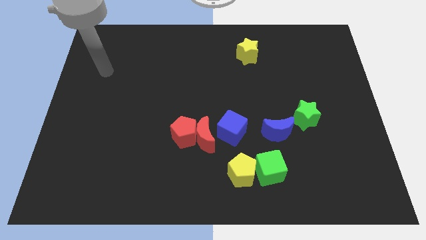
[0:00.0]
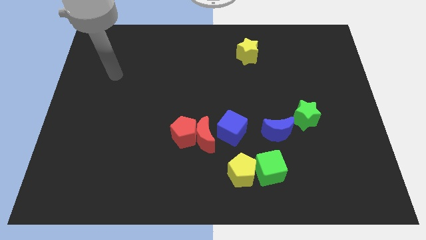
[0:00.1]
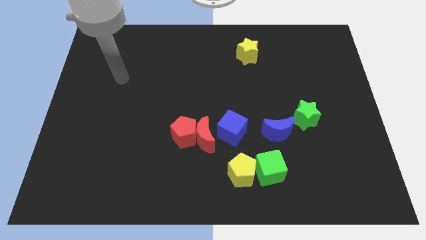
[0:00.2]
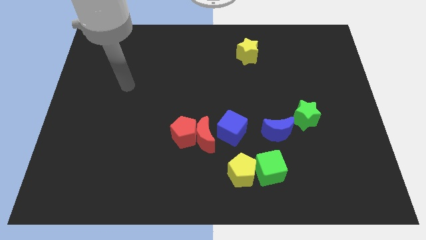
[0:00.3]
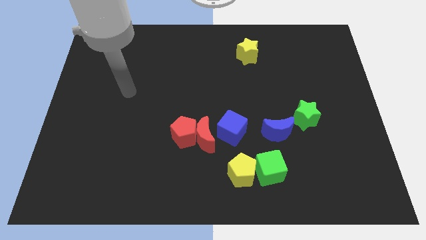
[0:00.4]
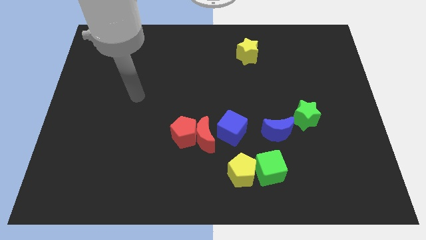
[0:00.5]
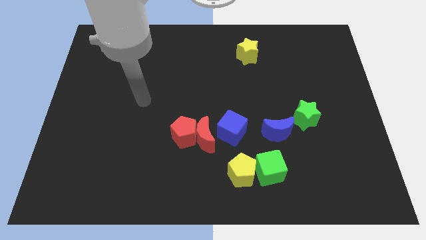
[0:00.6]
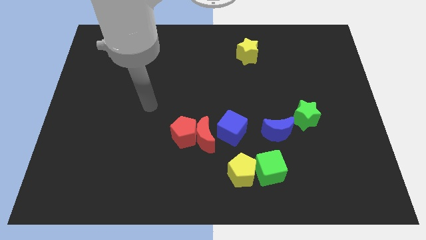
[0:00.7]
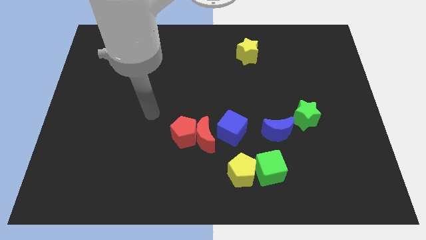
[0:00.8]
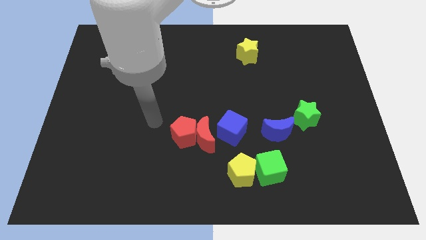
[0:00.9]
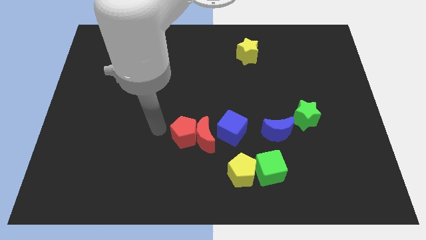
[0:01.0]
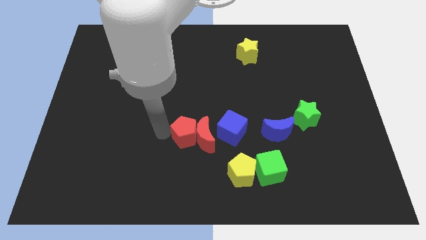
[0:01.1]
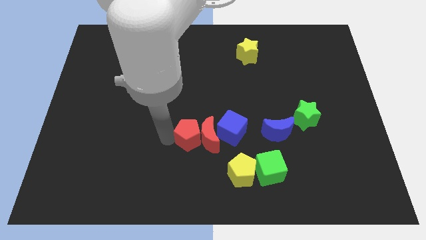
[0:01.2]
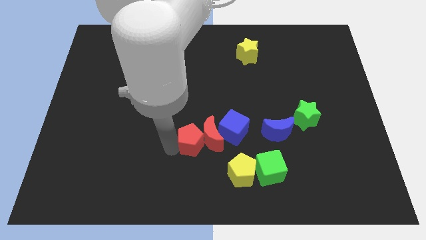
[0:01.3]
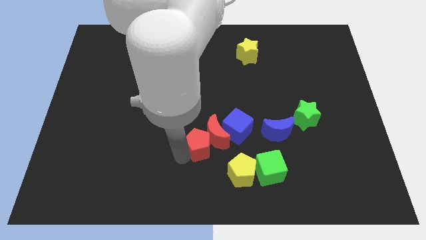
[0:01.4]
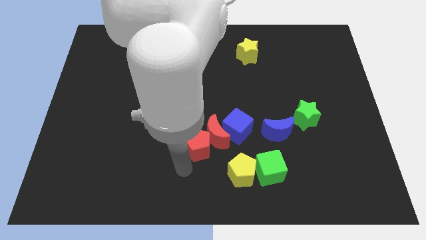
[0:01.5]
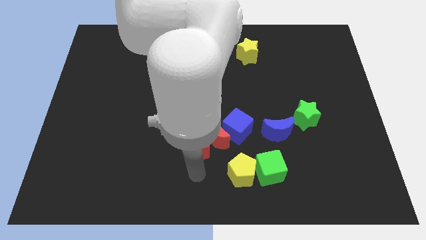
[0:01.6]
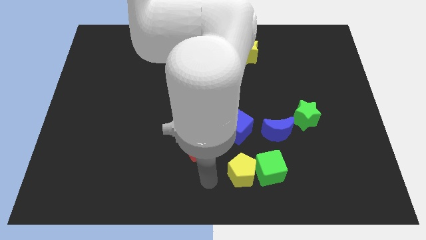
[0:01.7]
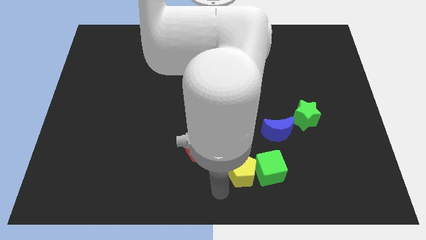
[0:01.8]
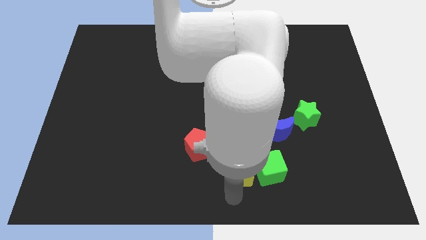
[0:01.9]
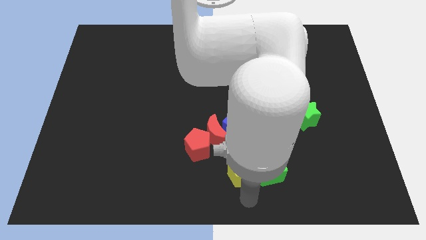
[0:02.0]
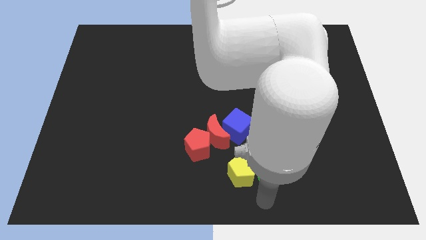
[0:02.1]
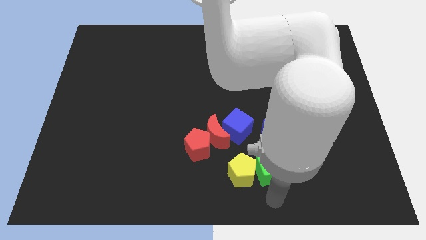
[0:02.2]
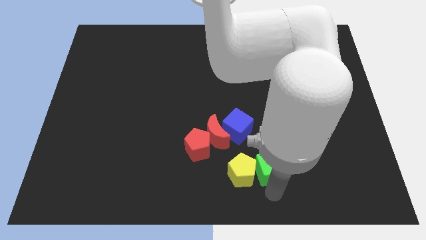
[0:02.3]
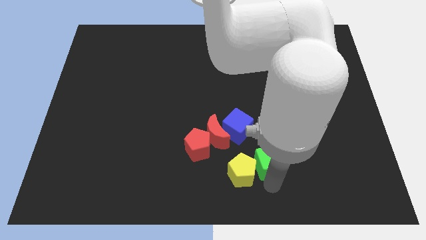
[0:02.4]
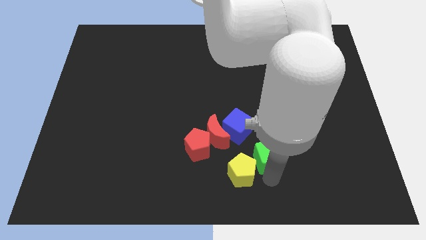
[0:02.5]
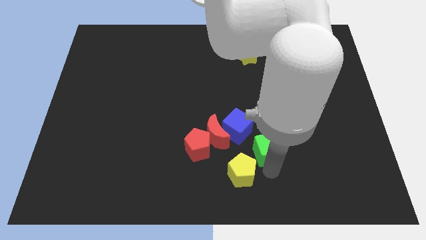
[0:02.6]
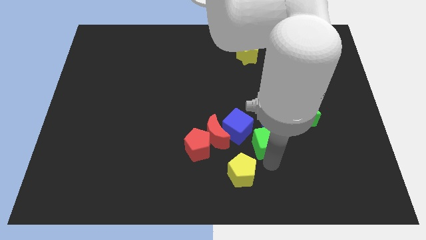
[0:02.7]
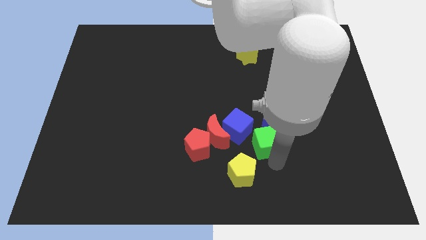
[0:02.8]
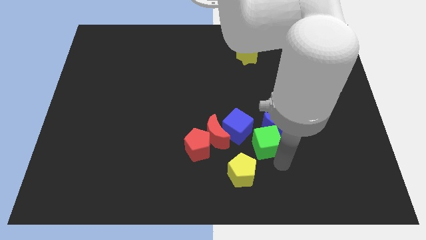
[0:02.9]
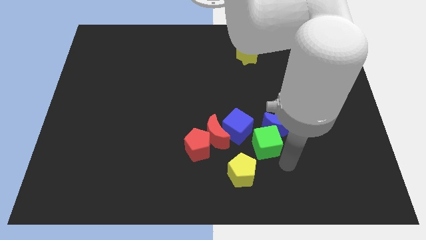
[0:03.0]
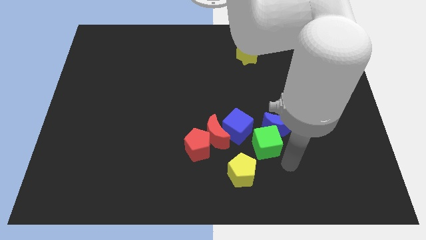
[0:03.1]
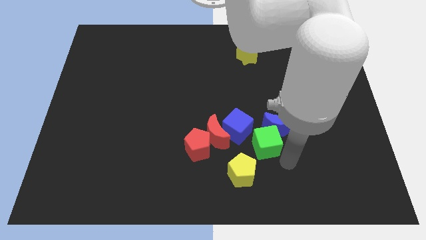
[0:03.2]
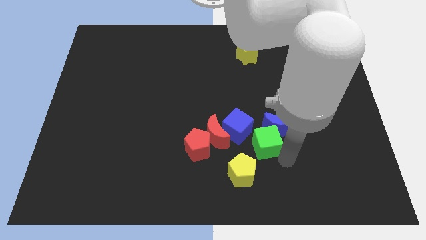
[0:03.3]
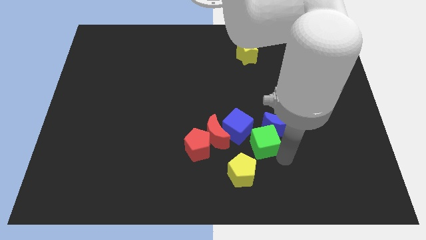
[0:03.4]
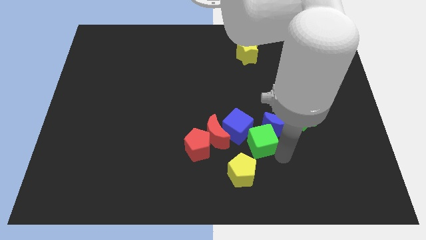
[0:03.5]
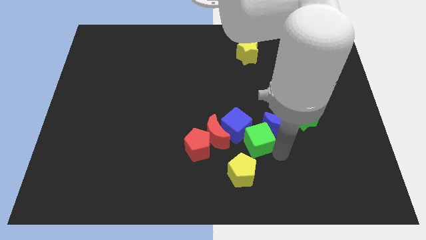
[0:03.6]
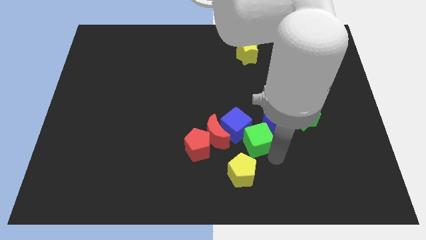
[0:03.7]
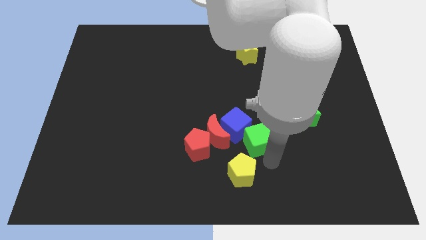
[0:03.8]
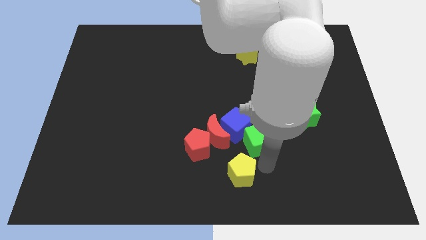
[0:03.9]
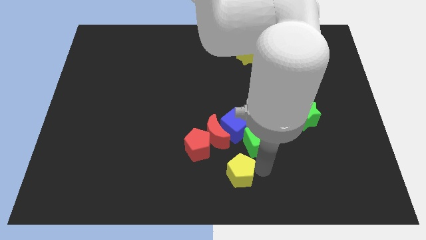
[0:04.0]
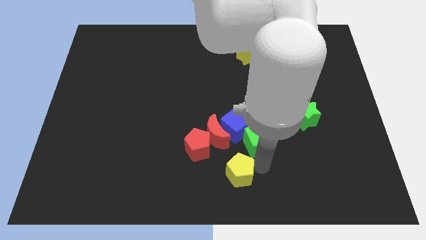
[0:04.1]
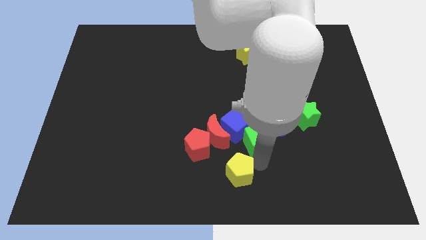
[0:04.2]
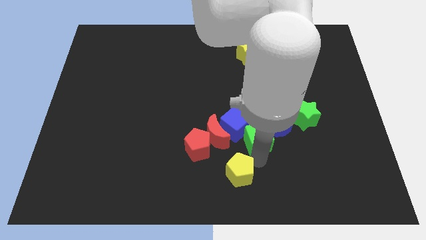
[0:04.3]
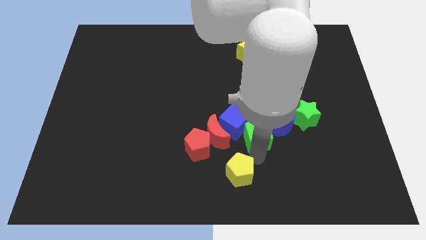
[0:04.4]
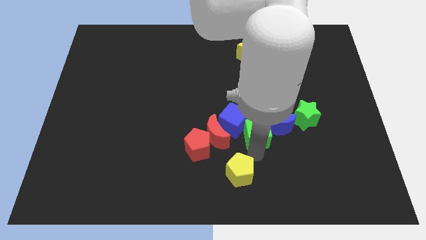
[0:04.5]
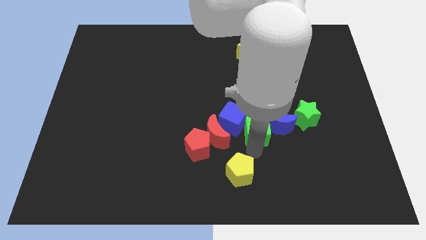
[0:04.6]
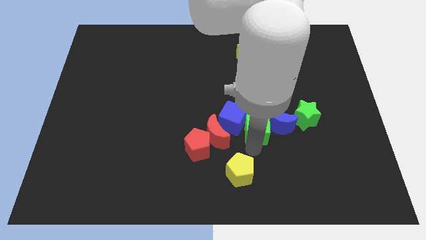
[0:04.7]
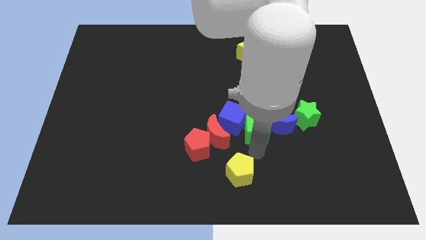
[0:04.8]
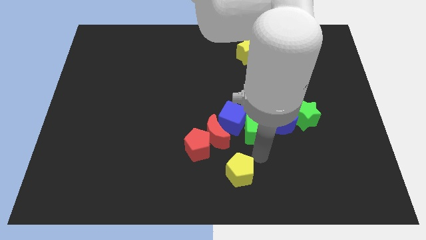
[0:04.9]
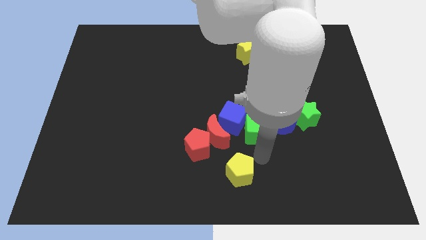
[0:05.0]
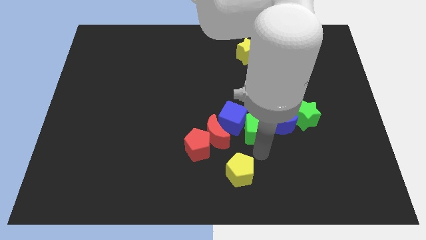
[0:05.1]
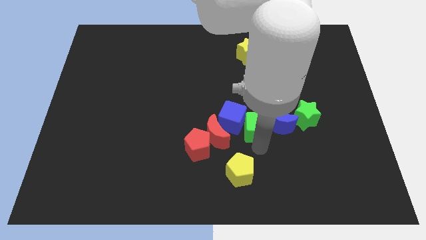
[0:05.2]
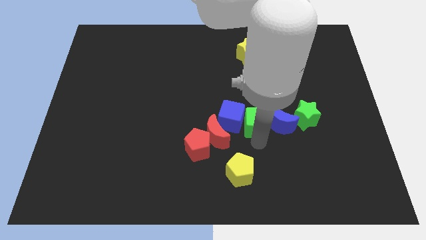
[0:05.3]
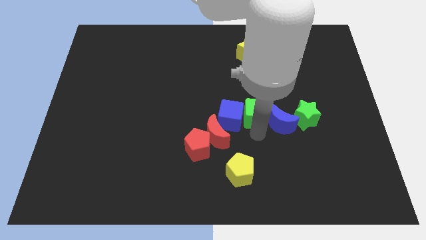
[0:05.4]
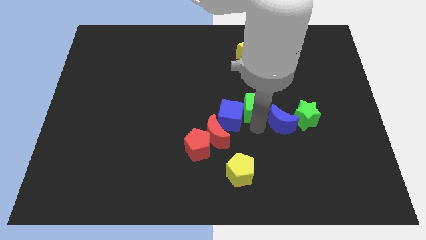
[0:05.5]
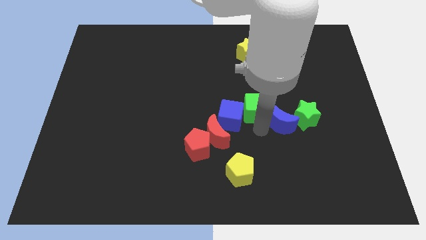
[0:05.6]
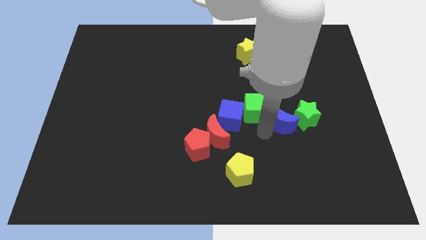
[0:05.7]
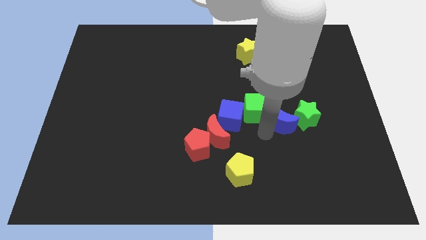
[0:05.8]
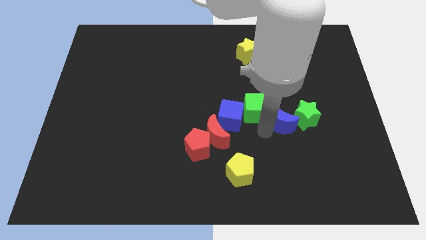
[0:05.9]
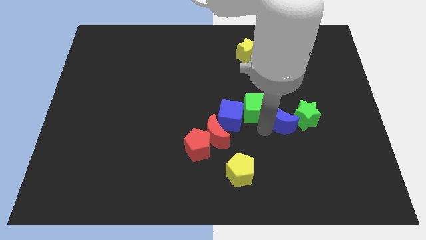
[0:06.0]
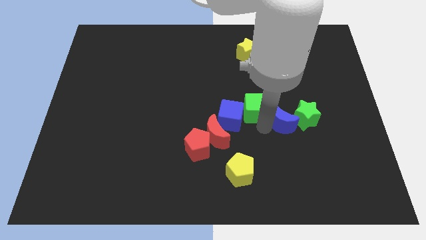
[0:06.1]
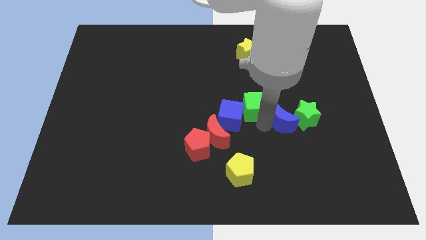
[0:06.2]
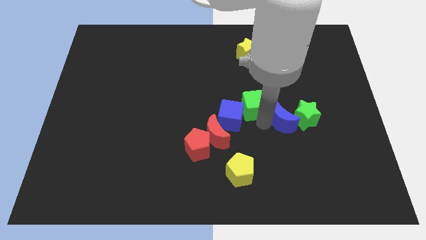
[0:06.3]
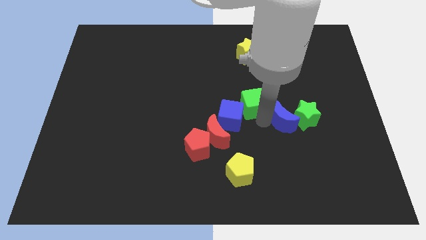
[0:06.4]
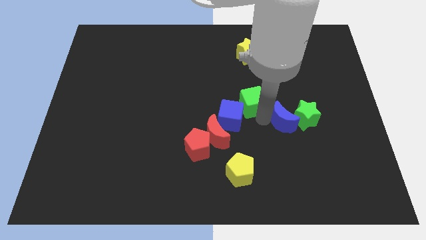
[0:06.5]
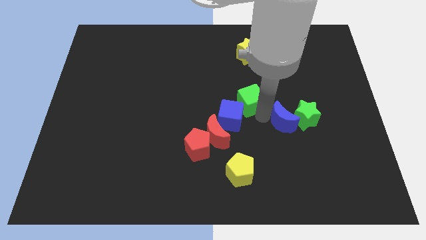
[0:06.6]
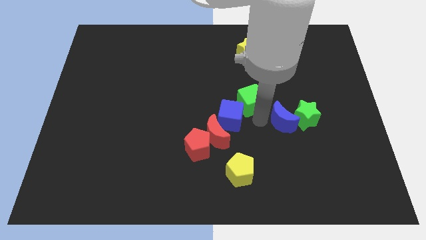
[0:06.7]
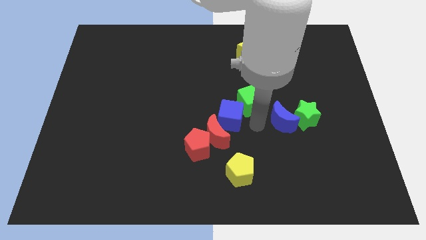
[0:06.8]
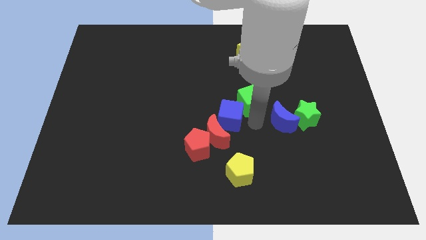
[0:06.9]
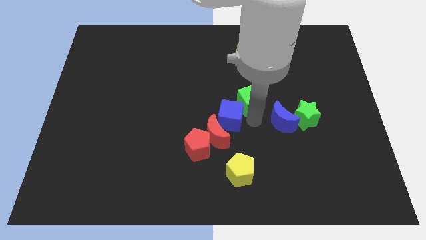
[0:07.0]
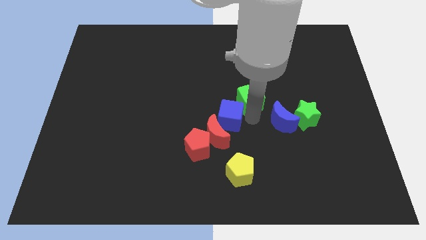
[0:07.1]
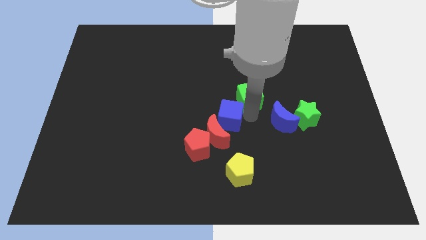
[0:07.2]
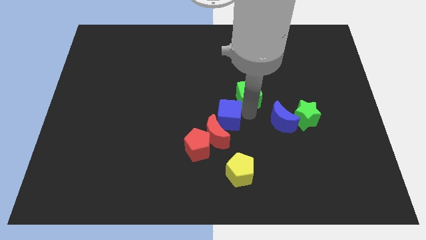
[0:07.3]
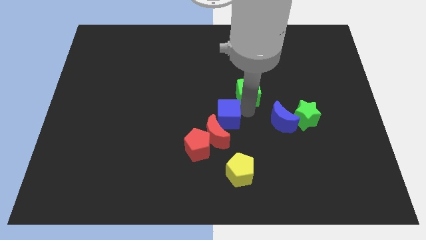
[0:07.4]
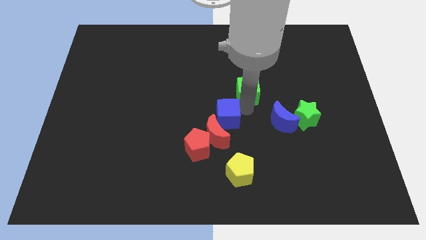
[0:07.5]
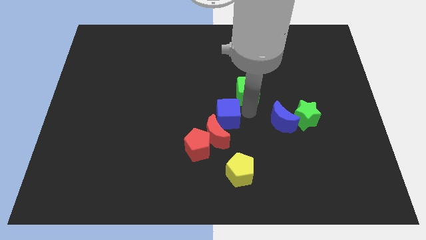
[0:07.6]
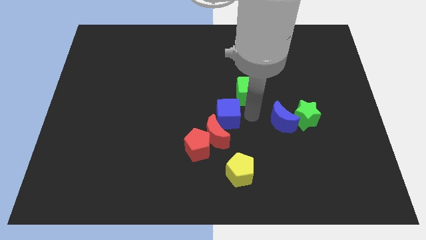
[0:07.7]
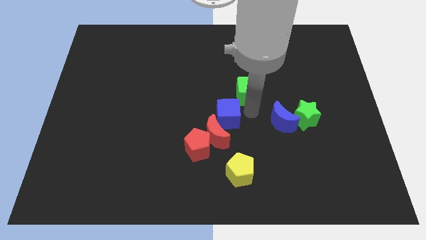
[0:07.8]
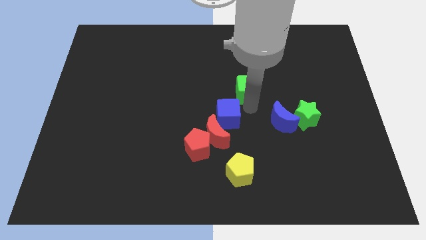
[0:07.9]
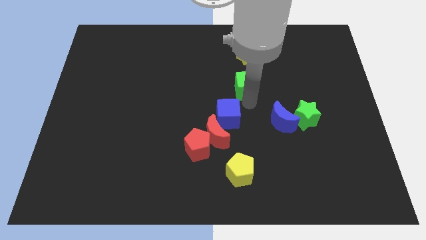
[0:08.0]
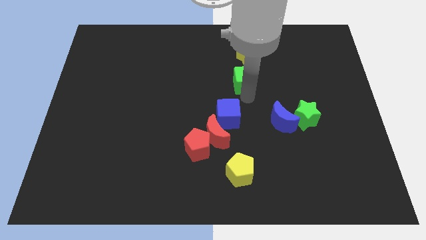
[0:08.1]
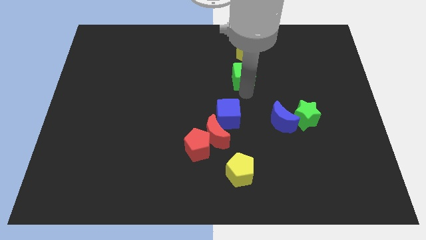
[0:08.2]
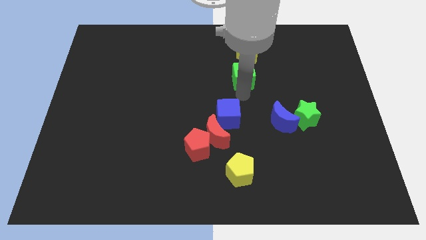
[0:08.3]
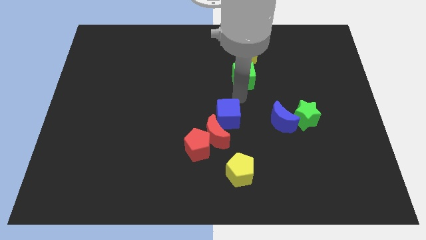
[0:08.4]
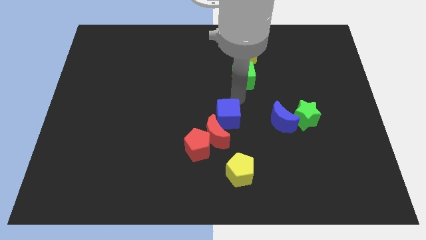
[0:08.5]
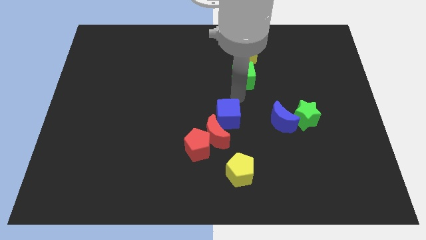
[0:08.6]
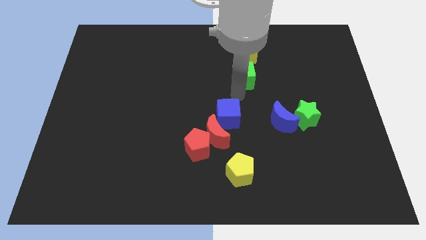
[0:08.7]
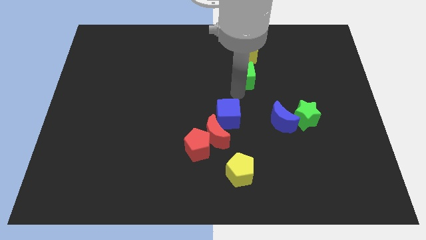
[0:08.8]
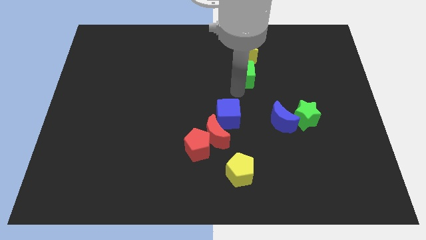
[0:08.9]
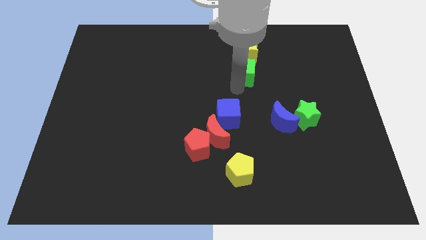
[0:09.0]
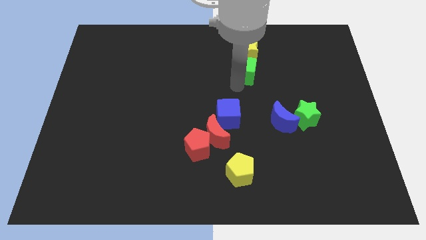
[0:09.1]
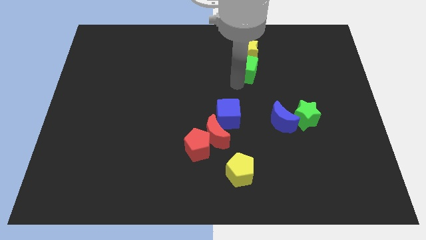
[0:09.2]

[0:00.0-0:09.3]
put the green cube towards the yellow star
